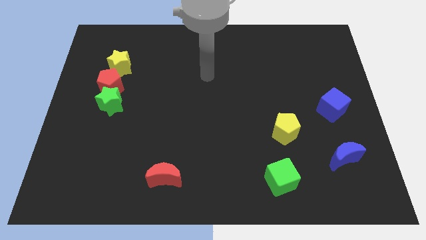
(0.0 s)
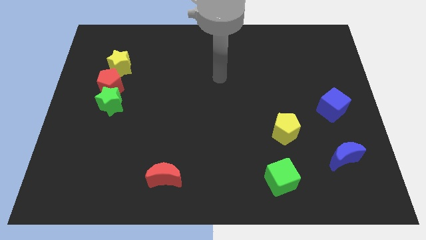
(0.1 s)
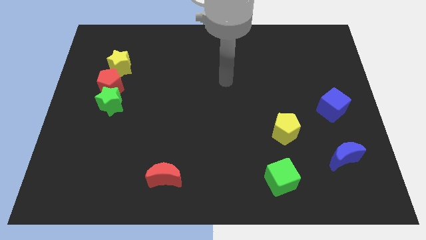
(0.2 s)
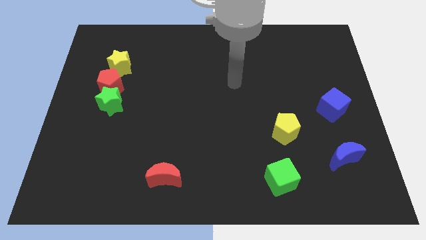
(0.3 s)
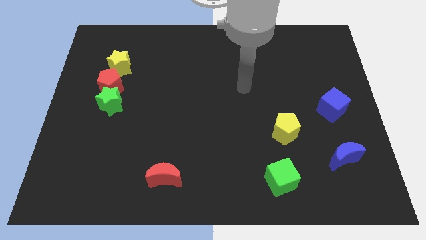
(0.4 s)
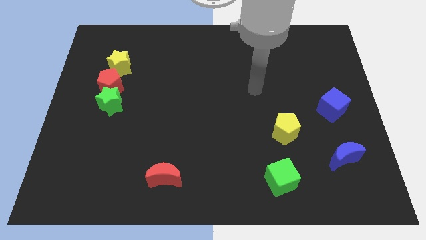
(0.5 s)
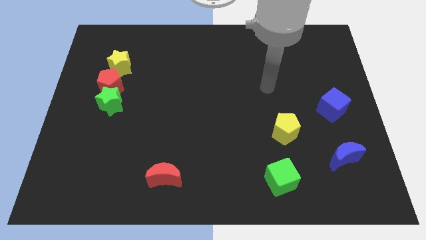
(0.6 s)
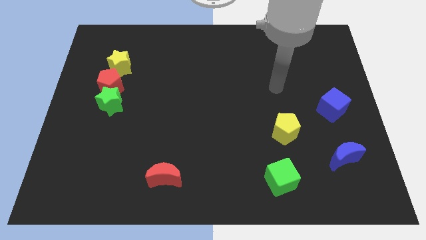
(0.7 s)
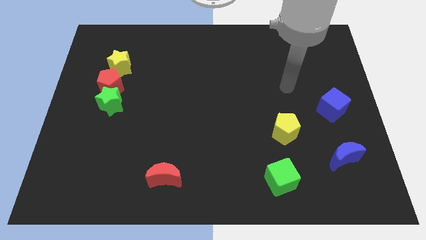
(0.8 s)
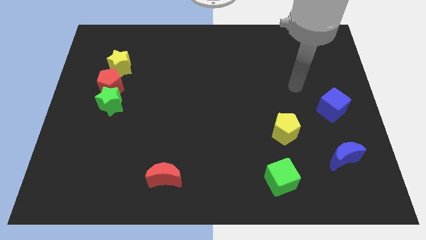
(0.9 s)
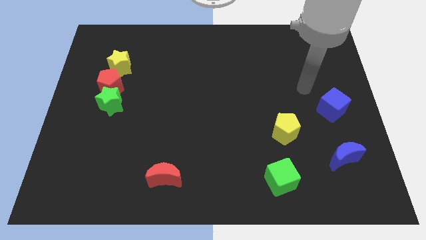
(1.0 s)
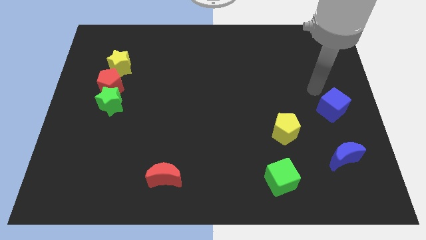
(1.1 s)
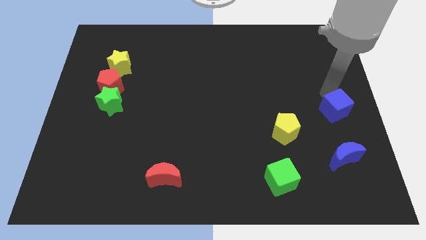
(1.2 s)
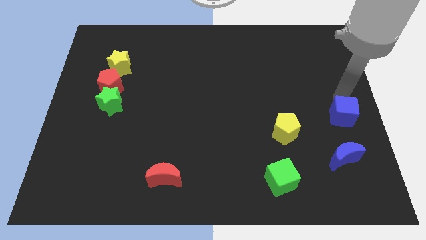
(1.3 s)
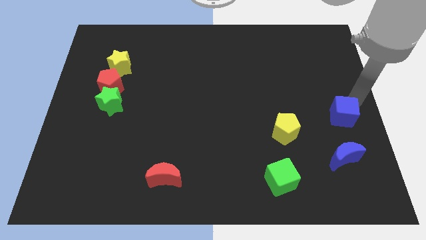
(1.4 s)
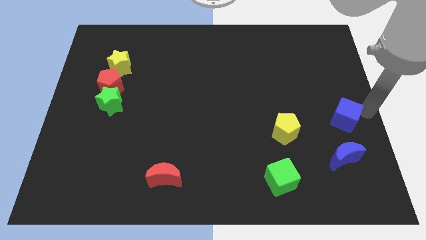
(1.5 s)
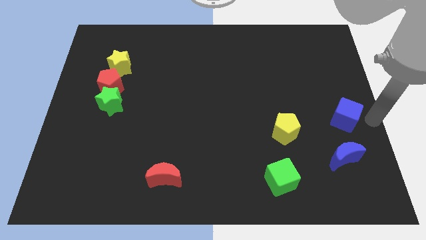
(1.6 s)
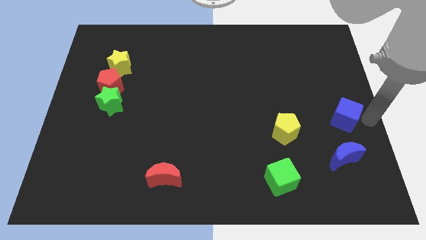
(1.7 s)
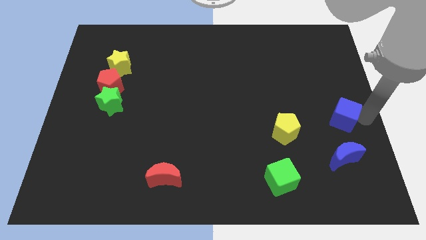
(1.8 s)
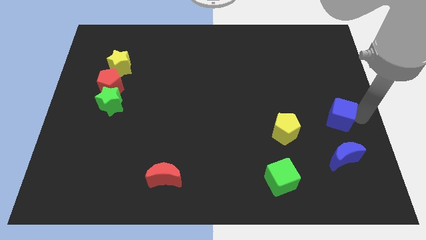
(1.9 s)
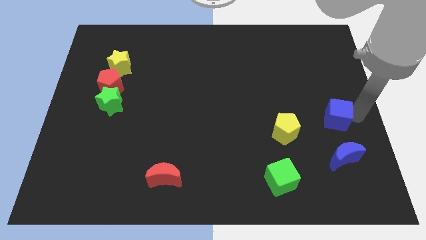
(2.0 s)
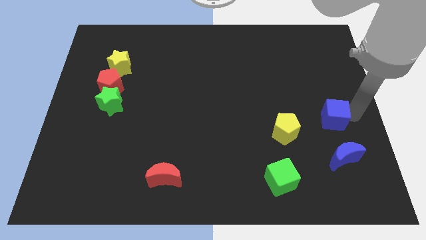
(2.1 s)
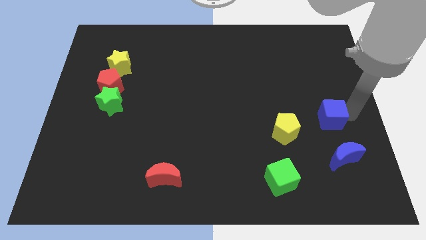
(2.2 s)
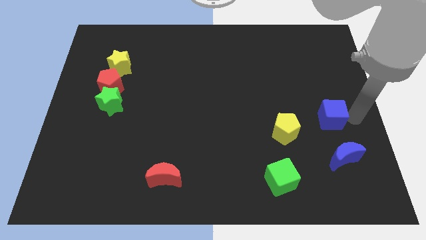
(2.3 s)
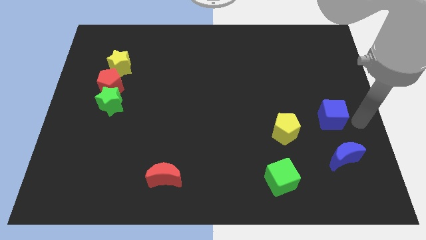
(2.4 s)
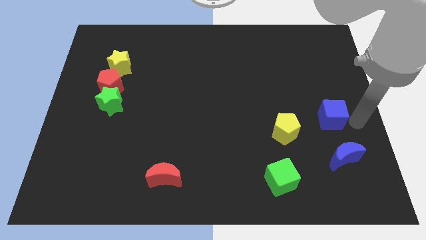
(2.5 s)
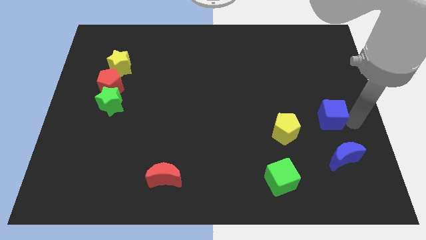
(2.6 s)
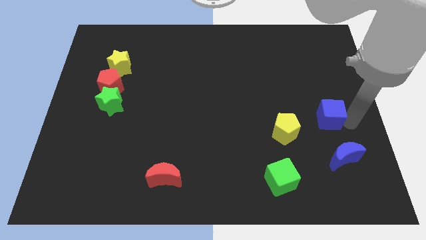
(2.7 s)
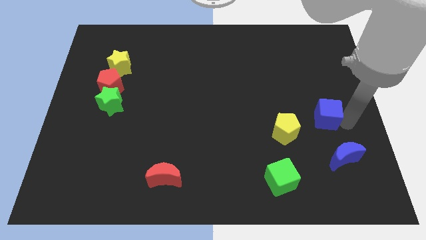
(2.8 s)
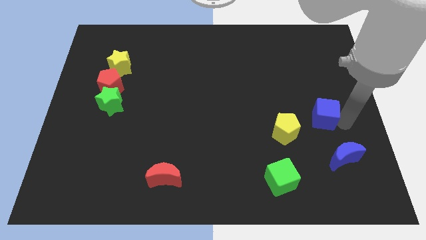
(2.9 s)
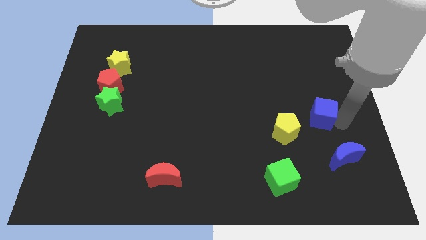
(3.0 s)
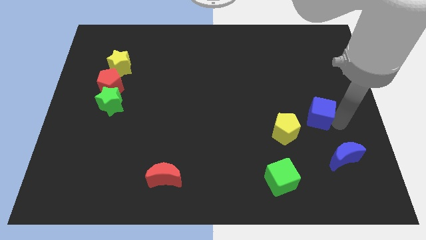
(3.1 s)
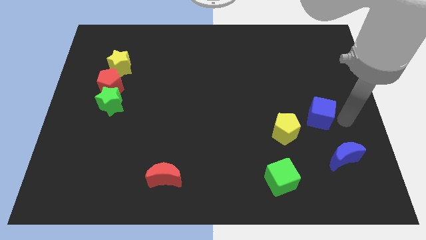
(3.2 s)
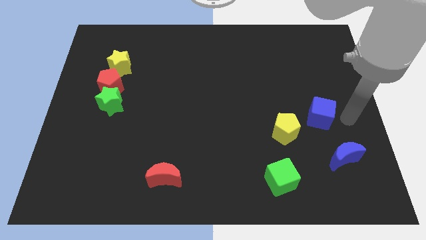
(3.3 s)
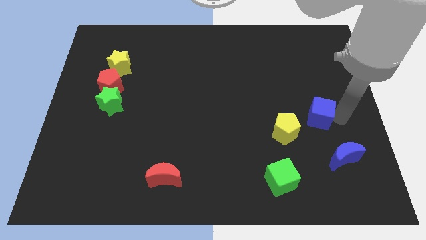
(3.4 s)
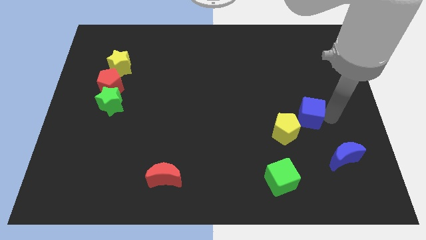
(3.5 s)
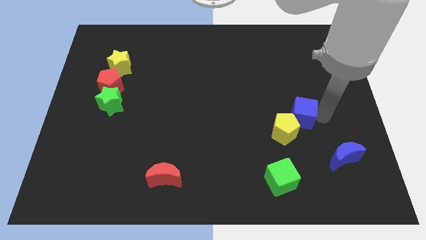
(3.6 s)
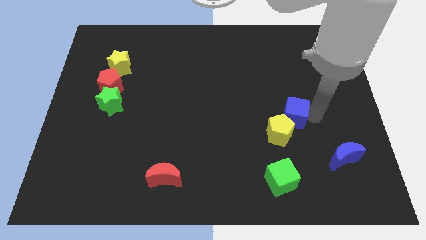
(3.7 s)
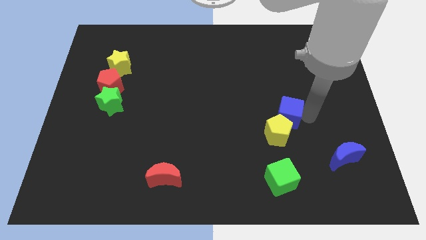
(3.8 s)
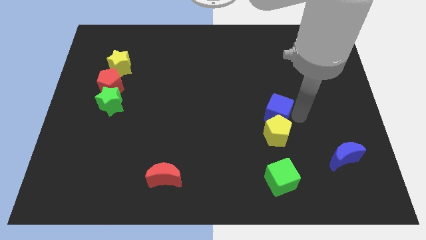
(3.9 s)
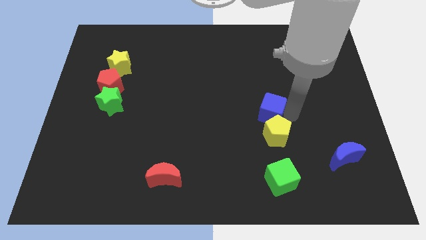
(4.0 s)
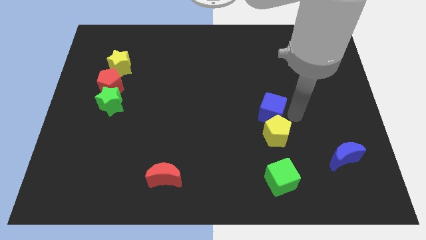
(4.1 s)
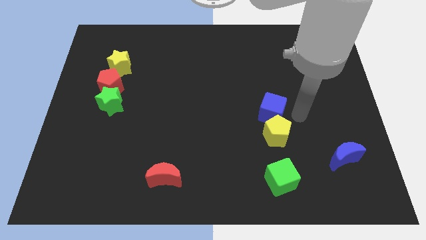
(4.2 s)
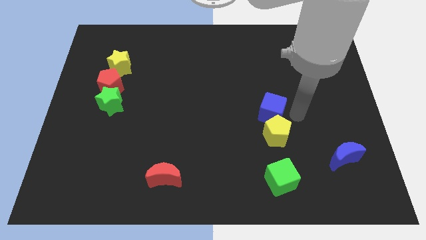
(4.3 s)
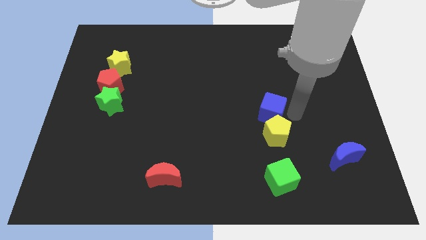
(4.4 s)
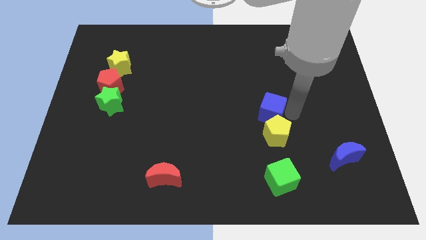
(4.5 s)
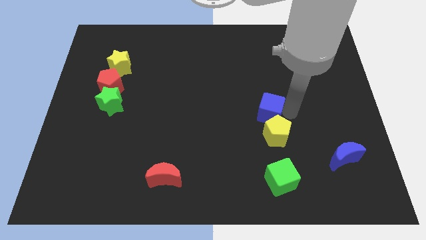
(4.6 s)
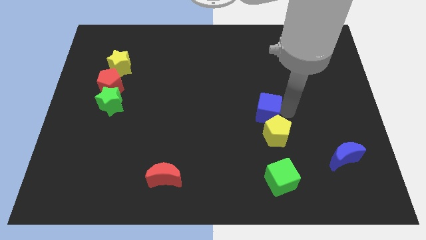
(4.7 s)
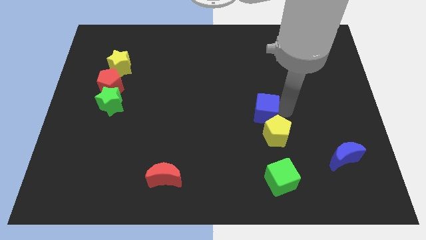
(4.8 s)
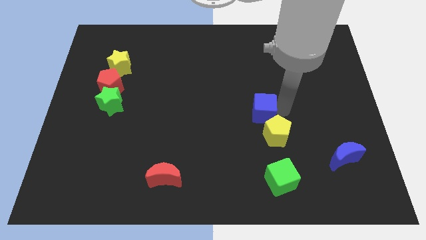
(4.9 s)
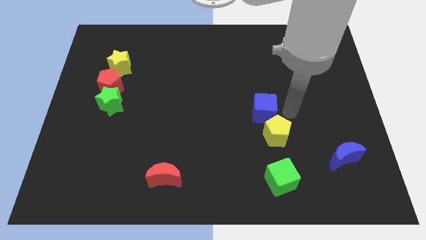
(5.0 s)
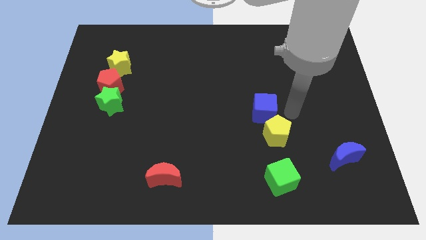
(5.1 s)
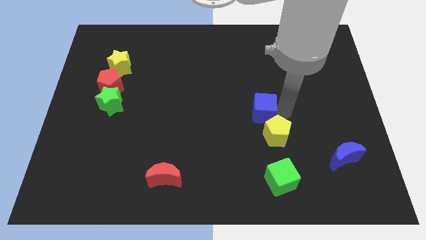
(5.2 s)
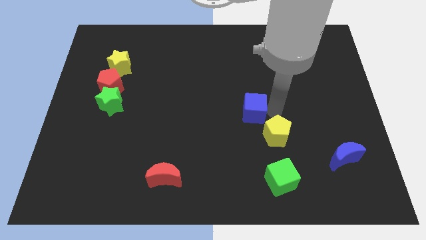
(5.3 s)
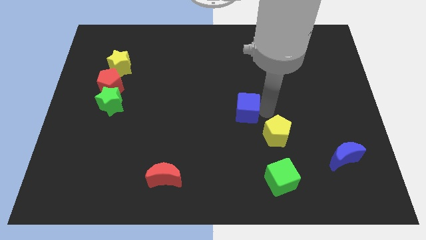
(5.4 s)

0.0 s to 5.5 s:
move the blue cube to the left

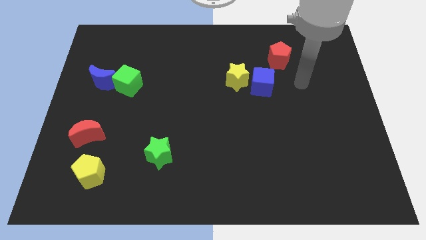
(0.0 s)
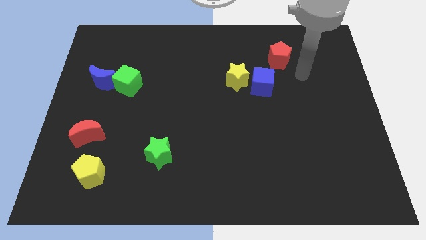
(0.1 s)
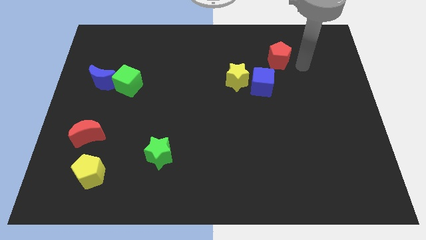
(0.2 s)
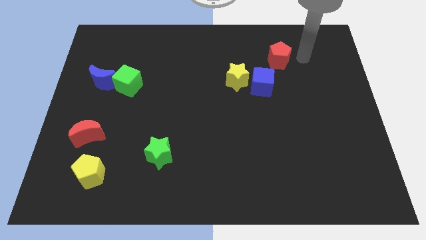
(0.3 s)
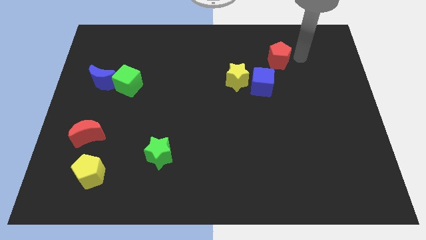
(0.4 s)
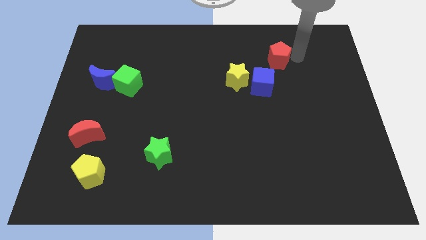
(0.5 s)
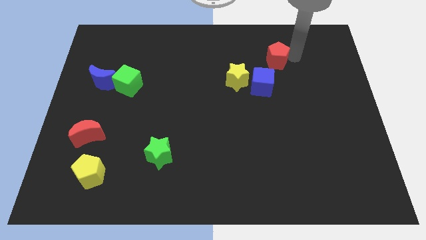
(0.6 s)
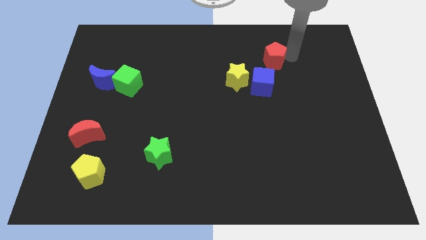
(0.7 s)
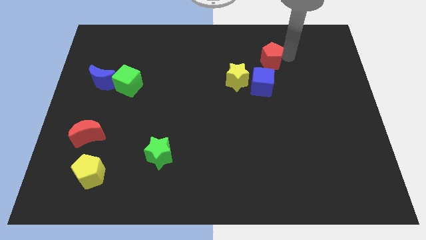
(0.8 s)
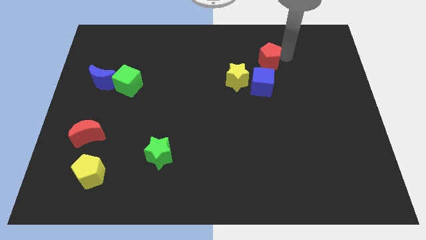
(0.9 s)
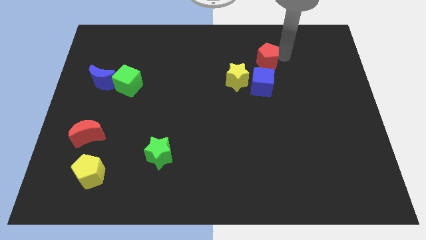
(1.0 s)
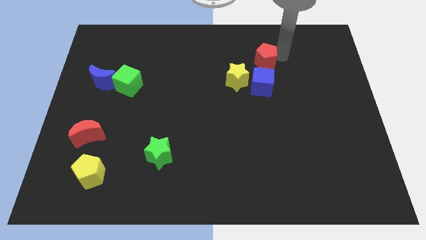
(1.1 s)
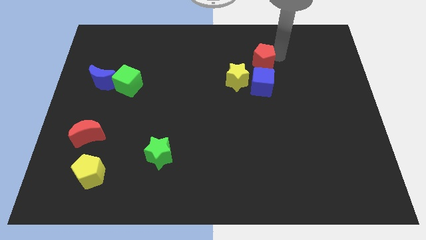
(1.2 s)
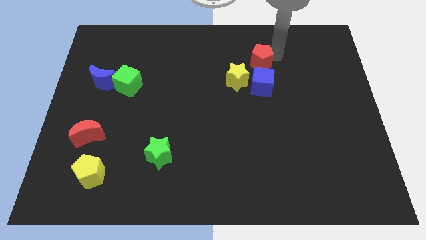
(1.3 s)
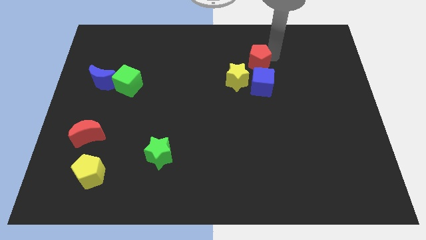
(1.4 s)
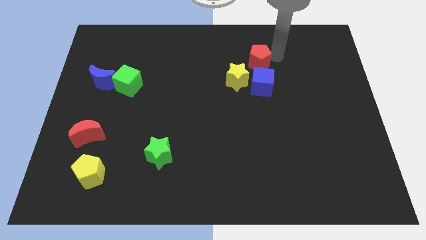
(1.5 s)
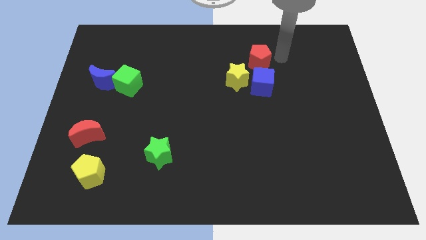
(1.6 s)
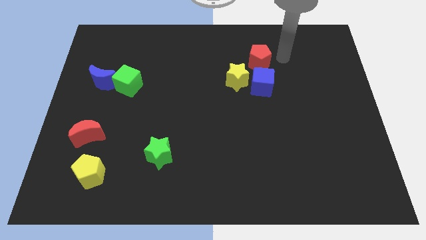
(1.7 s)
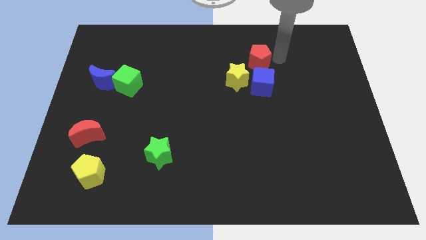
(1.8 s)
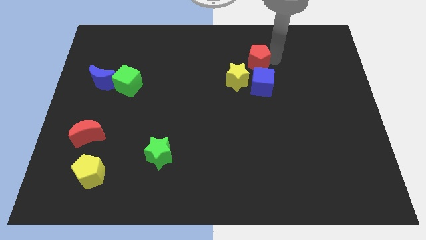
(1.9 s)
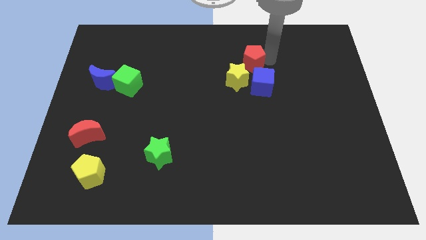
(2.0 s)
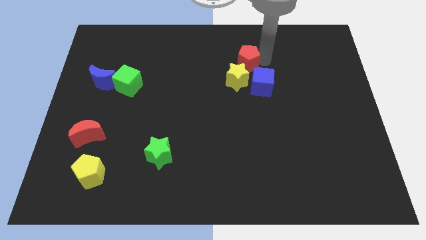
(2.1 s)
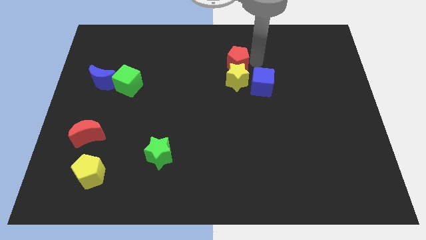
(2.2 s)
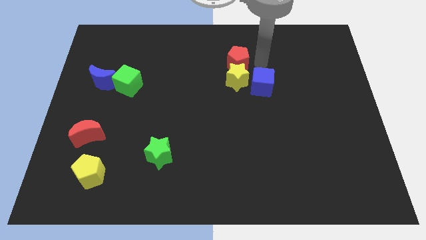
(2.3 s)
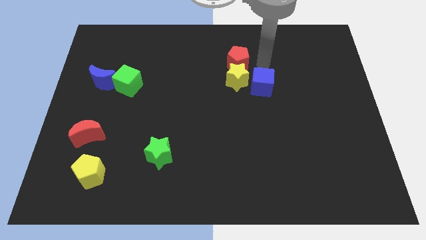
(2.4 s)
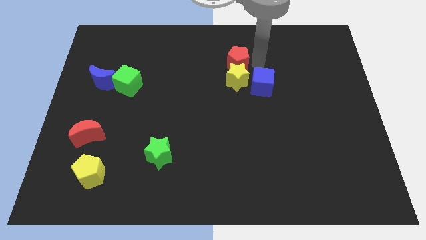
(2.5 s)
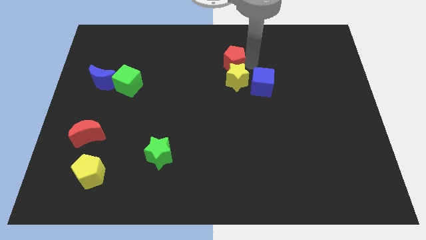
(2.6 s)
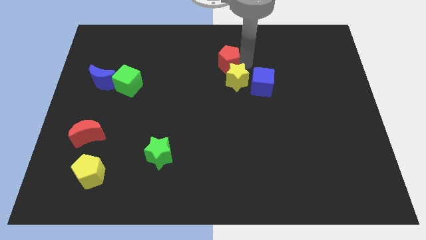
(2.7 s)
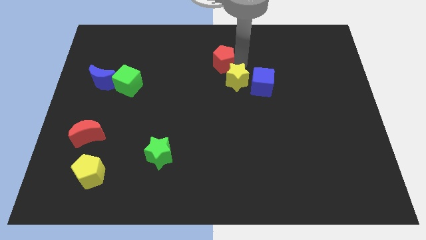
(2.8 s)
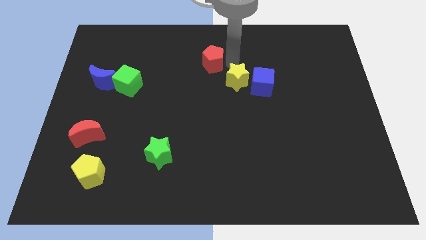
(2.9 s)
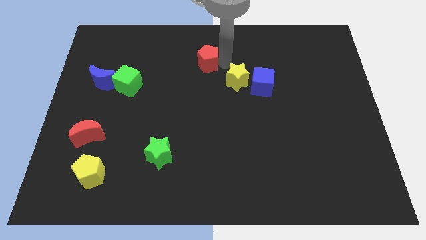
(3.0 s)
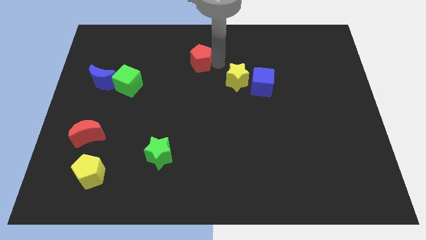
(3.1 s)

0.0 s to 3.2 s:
move the red pentagon to the left
